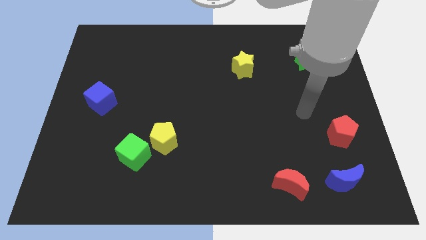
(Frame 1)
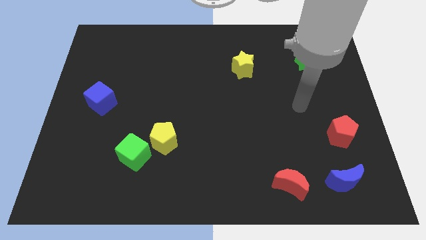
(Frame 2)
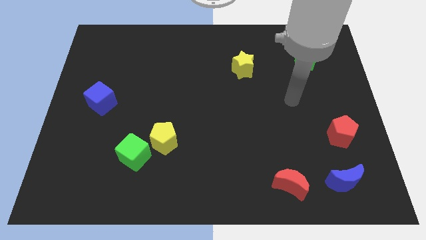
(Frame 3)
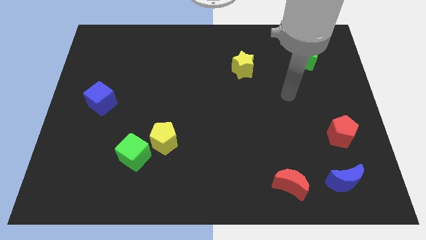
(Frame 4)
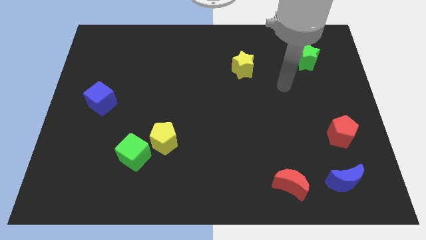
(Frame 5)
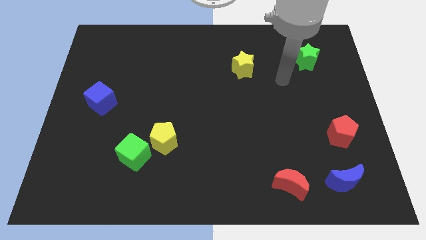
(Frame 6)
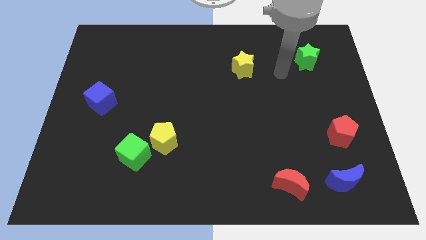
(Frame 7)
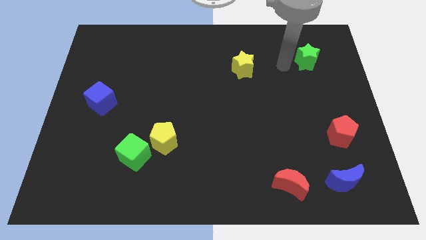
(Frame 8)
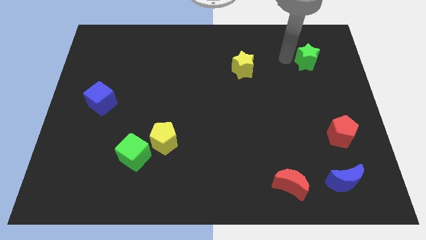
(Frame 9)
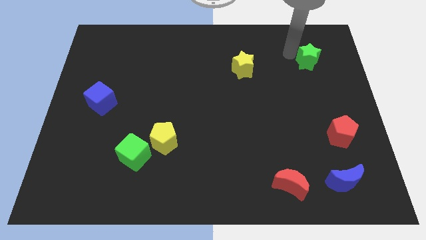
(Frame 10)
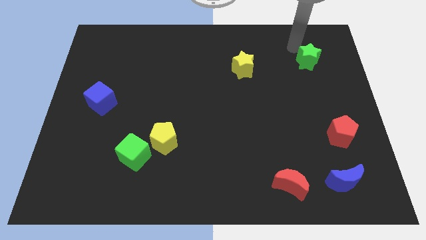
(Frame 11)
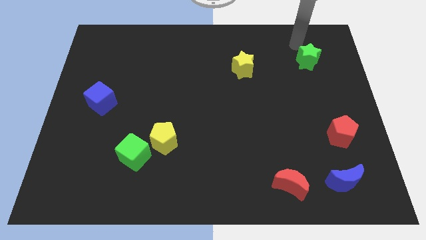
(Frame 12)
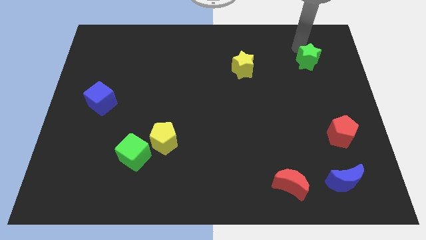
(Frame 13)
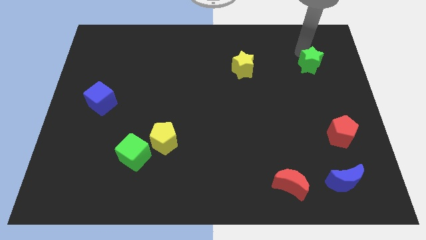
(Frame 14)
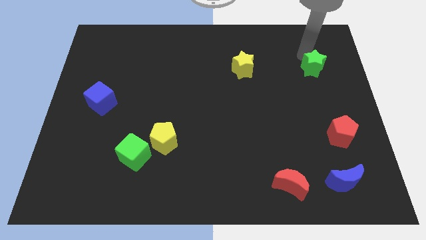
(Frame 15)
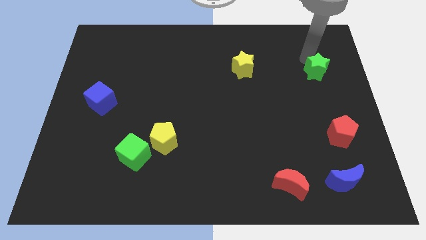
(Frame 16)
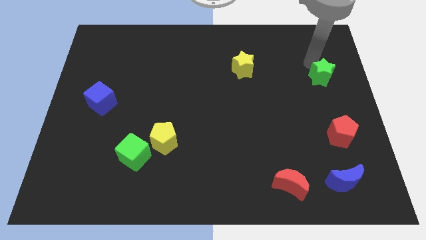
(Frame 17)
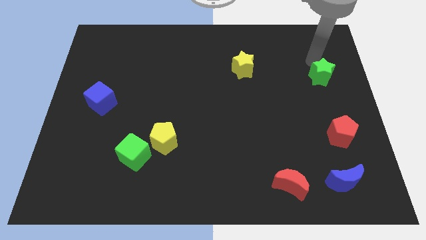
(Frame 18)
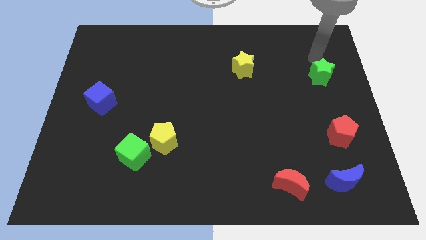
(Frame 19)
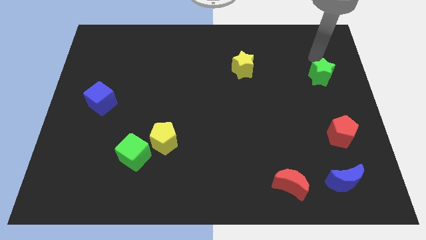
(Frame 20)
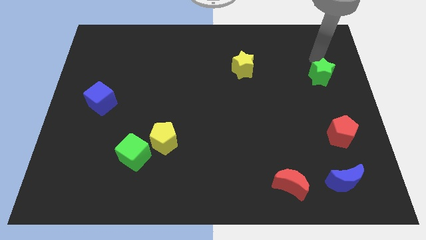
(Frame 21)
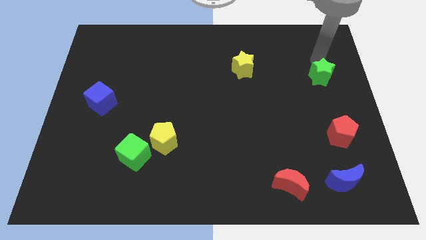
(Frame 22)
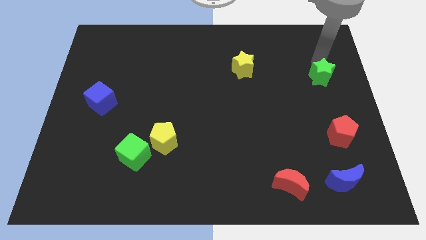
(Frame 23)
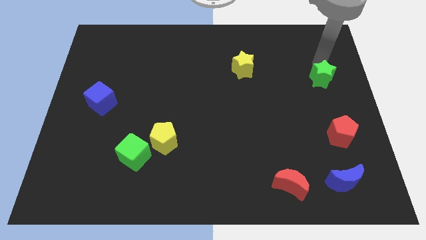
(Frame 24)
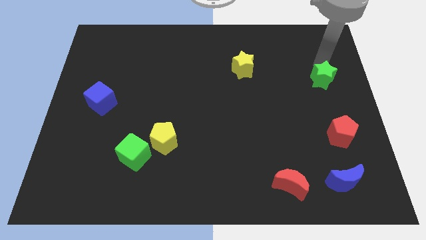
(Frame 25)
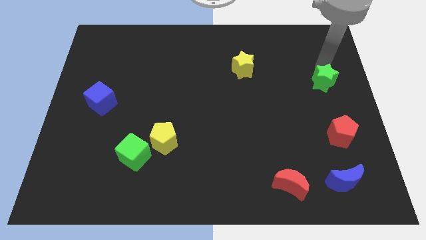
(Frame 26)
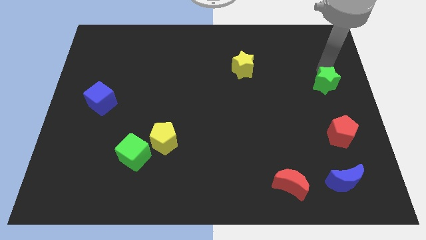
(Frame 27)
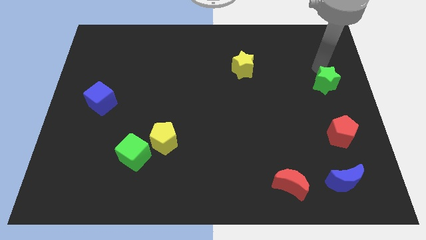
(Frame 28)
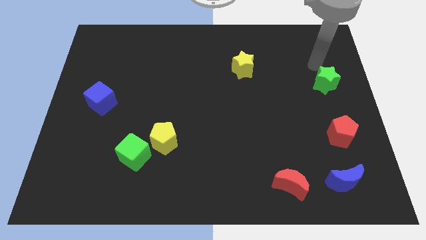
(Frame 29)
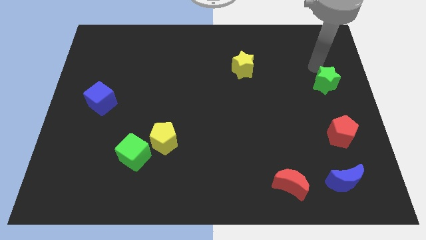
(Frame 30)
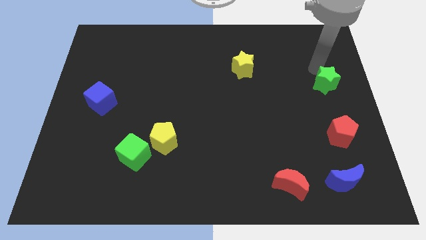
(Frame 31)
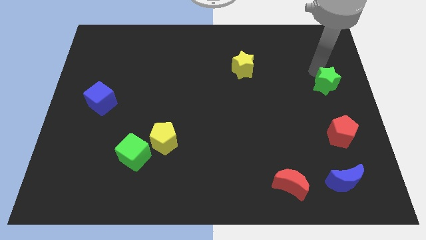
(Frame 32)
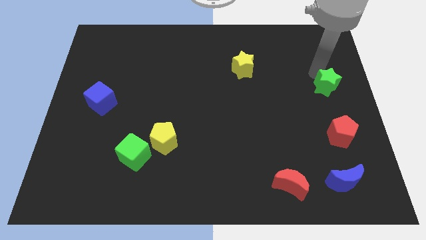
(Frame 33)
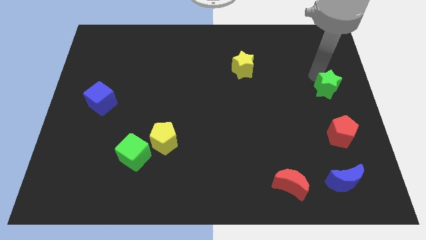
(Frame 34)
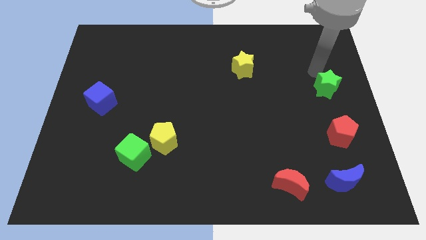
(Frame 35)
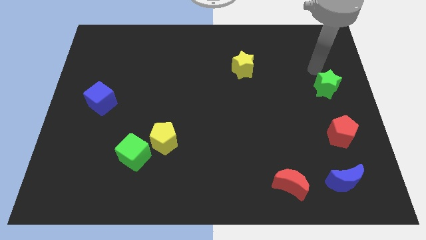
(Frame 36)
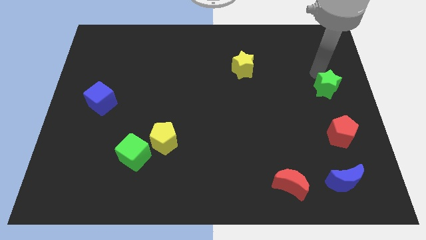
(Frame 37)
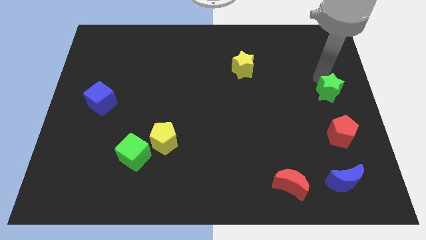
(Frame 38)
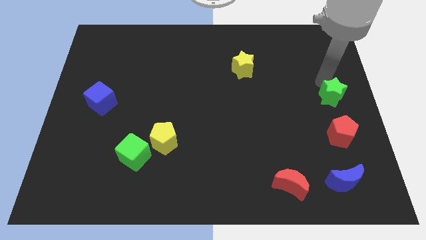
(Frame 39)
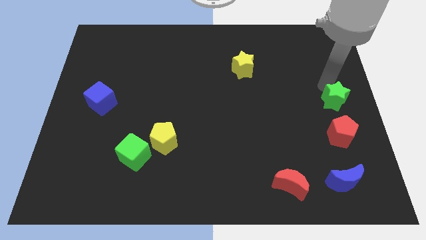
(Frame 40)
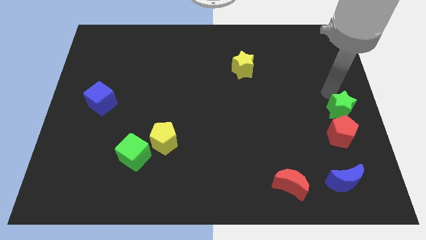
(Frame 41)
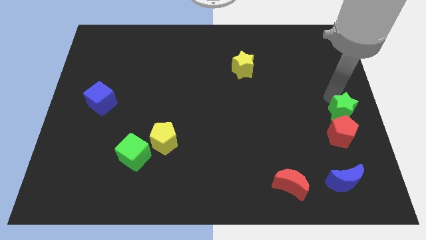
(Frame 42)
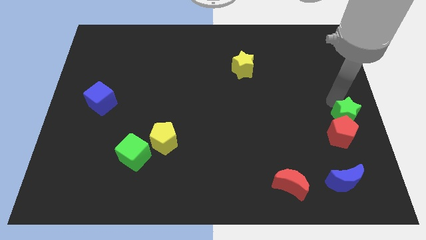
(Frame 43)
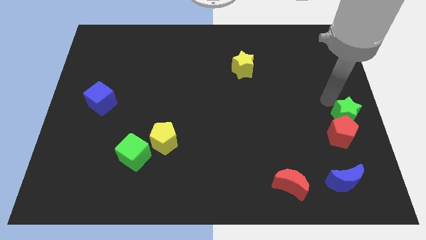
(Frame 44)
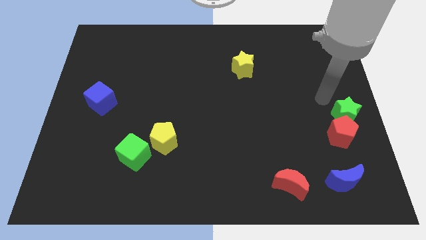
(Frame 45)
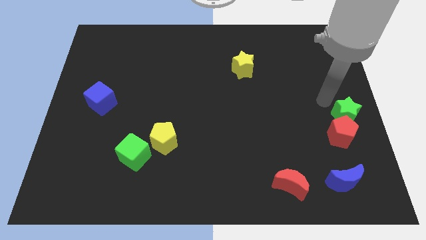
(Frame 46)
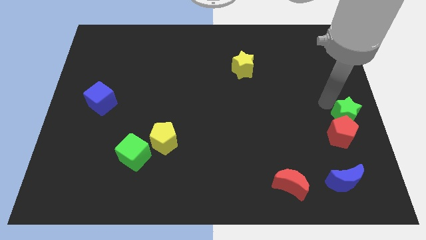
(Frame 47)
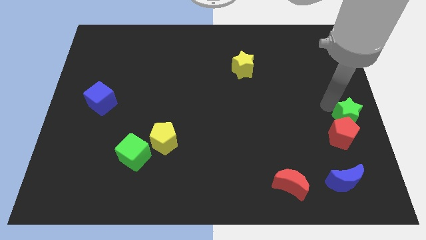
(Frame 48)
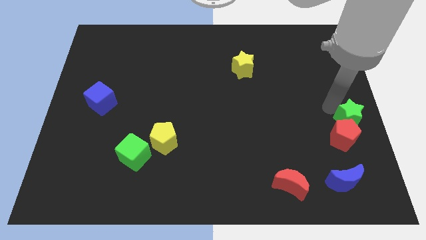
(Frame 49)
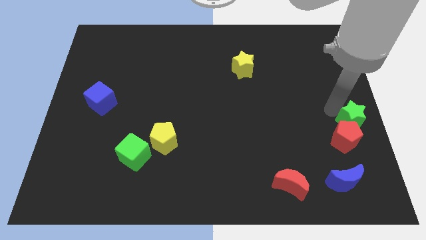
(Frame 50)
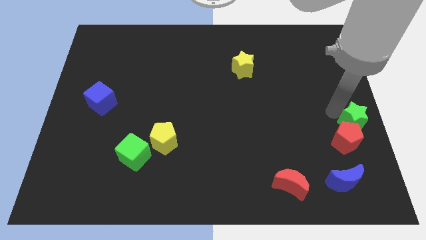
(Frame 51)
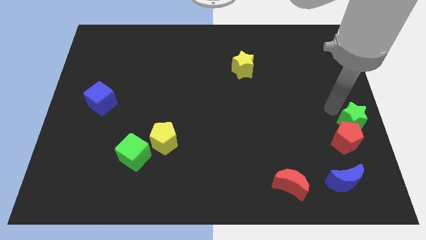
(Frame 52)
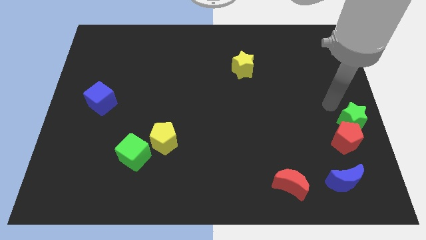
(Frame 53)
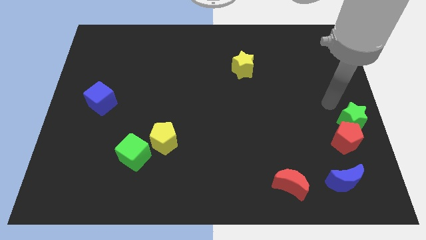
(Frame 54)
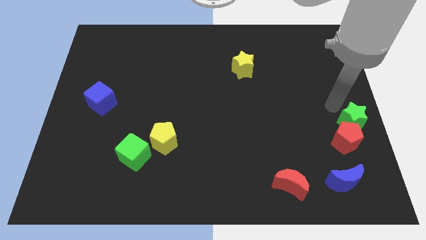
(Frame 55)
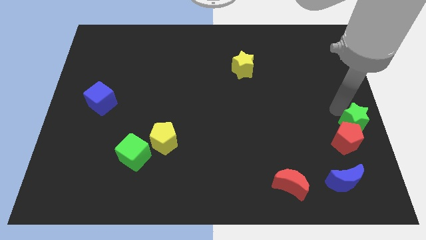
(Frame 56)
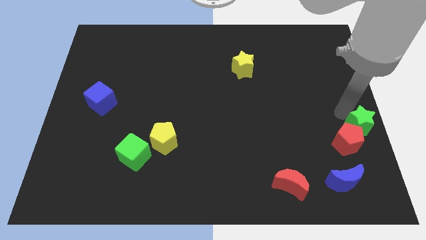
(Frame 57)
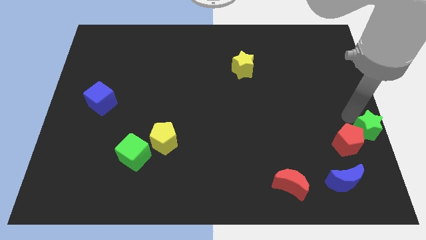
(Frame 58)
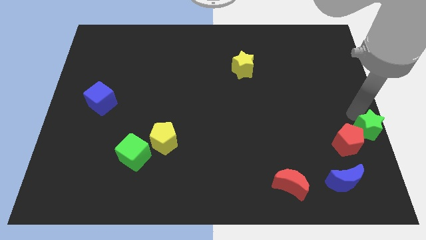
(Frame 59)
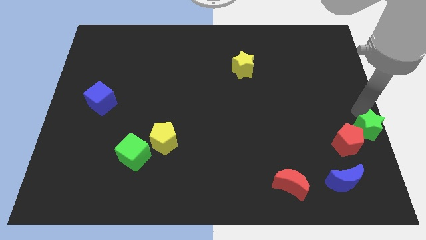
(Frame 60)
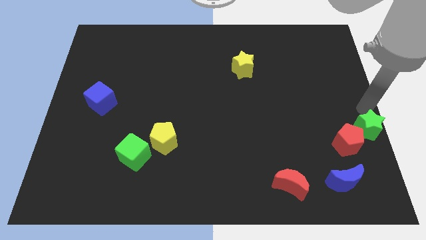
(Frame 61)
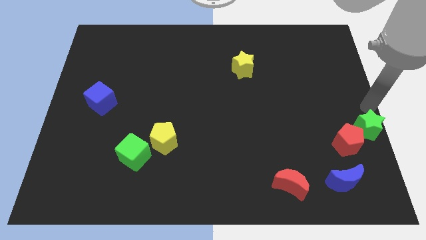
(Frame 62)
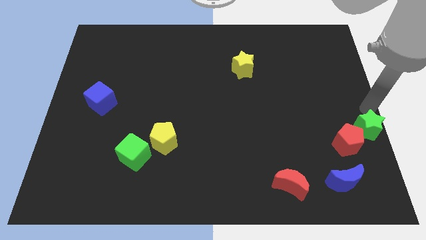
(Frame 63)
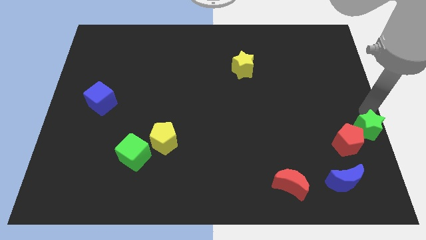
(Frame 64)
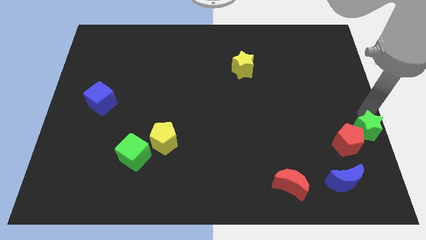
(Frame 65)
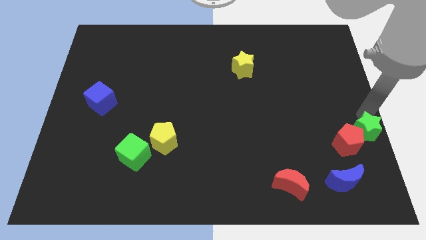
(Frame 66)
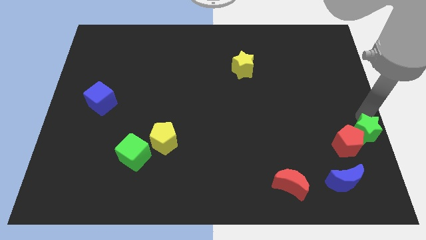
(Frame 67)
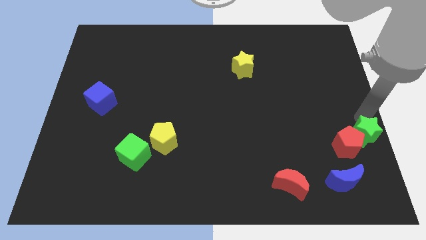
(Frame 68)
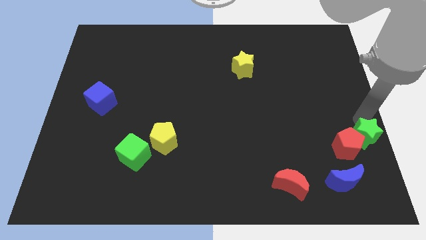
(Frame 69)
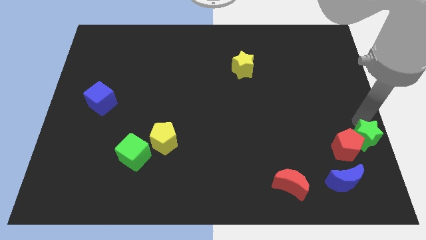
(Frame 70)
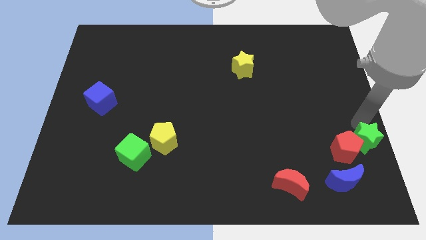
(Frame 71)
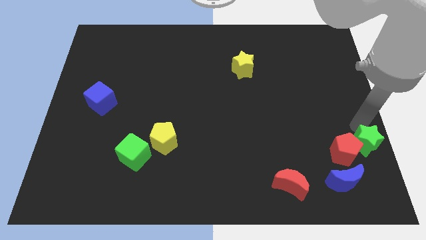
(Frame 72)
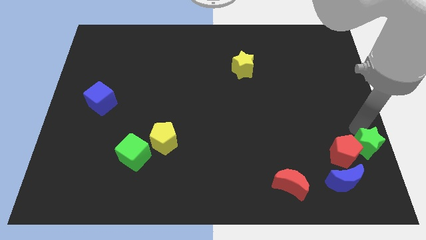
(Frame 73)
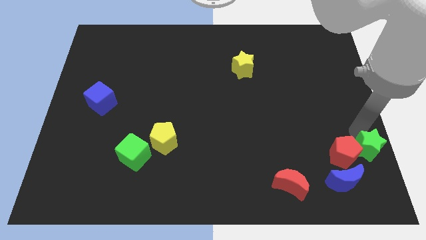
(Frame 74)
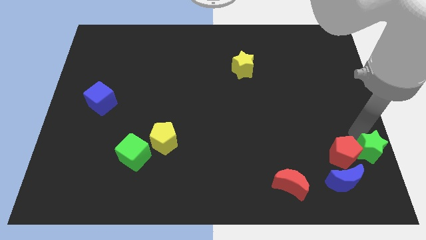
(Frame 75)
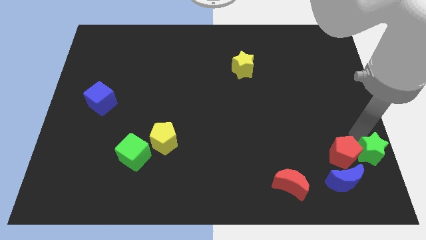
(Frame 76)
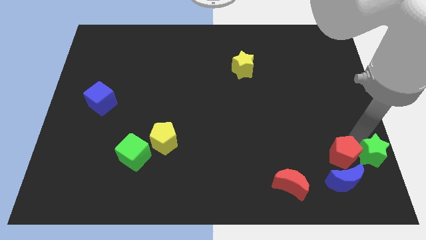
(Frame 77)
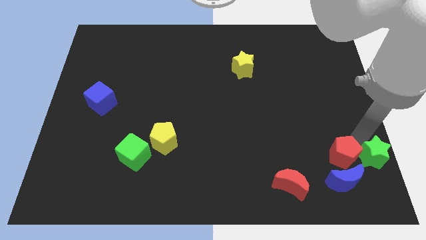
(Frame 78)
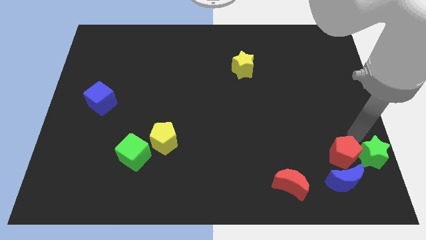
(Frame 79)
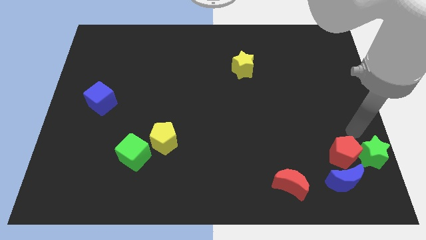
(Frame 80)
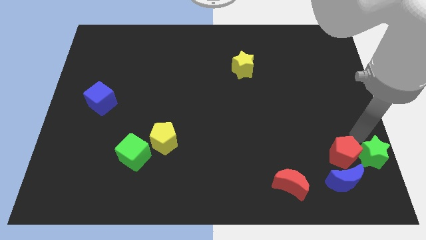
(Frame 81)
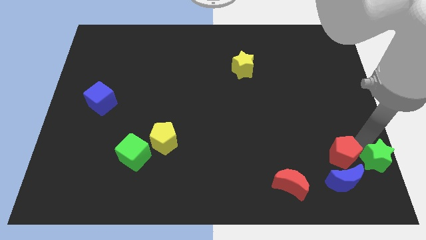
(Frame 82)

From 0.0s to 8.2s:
slide the green star to the bottom right of the board
